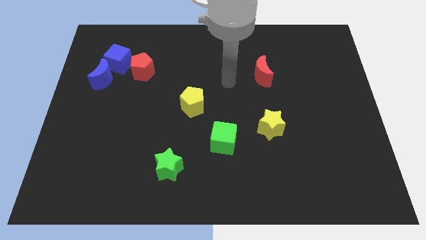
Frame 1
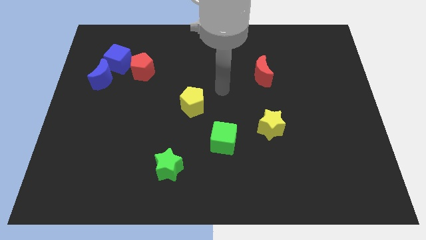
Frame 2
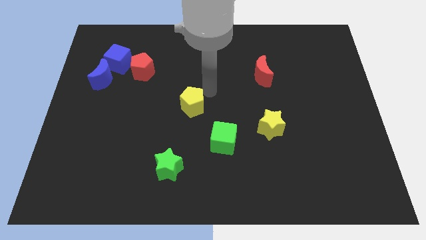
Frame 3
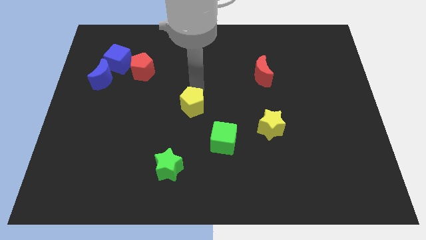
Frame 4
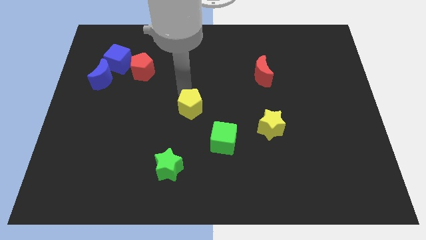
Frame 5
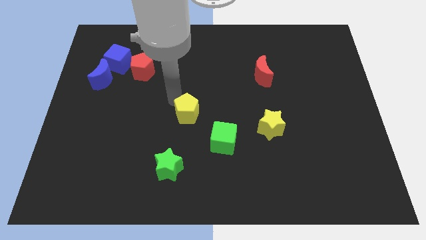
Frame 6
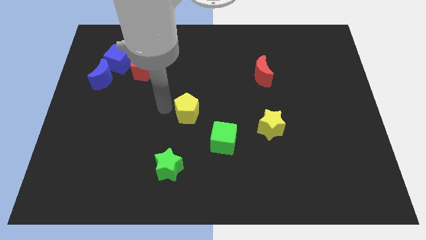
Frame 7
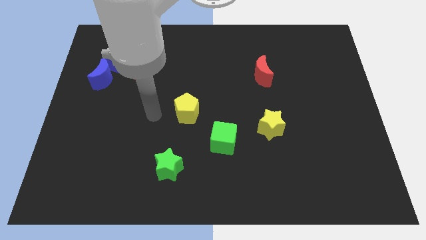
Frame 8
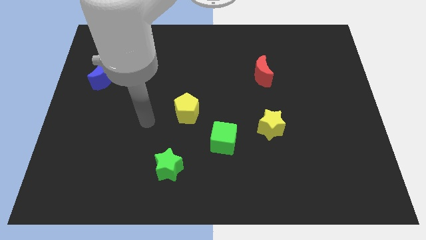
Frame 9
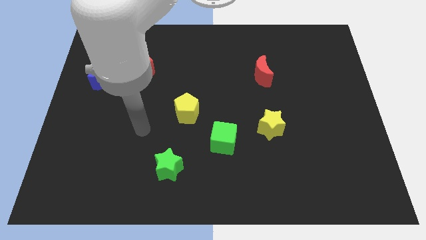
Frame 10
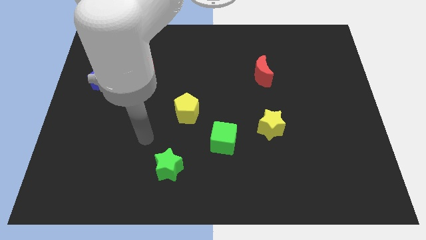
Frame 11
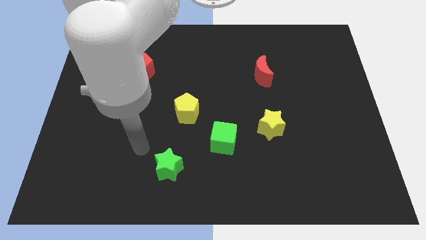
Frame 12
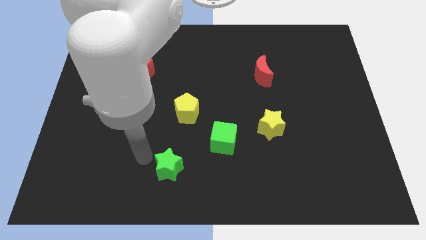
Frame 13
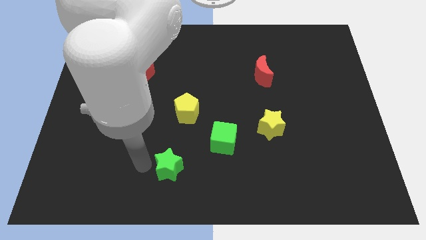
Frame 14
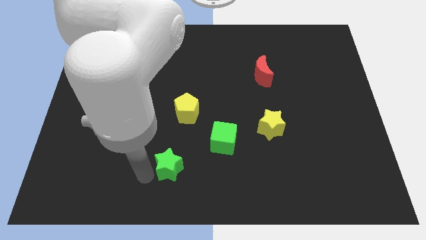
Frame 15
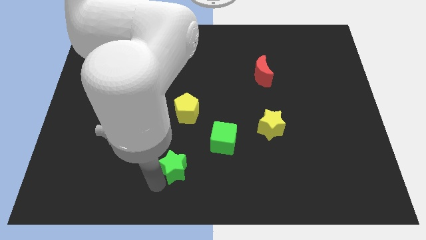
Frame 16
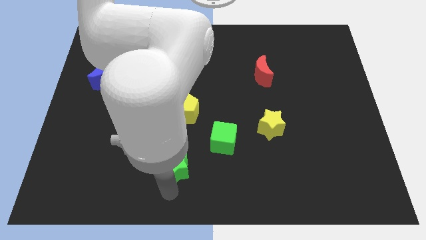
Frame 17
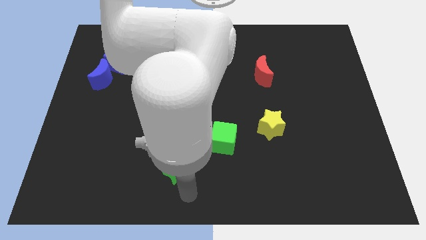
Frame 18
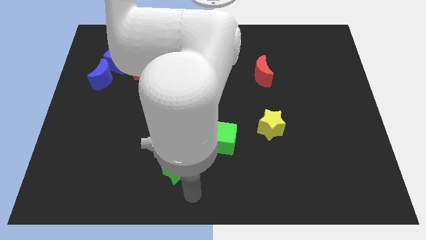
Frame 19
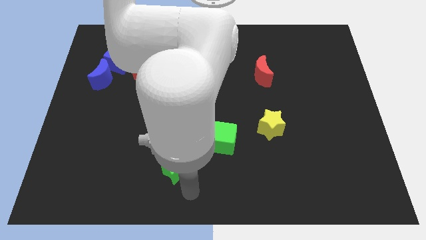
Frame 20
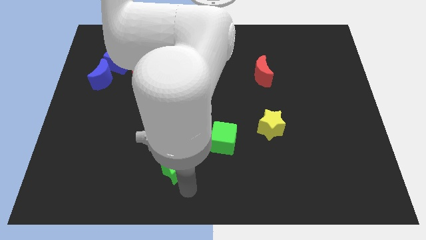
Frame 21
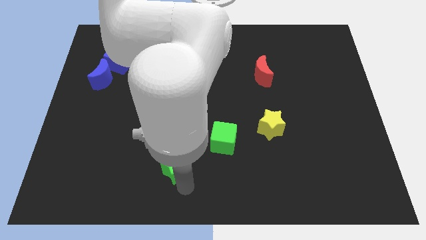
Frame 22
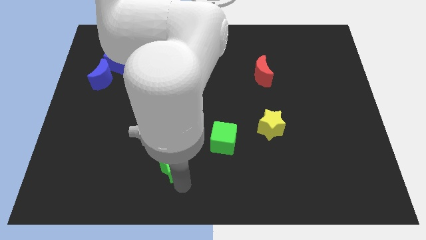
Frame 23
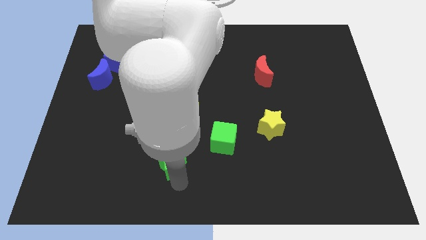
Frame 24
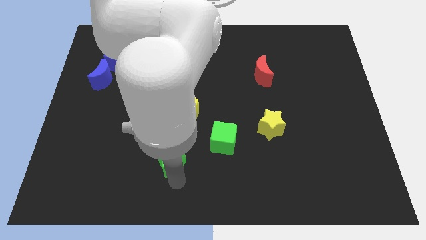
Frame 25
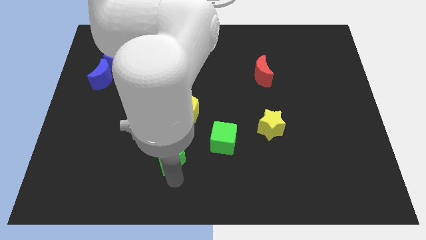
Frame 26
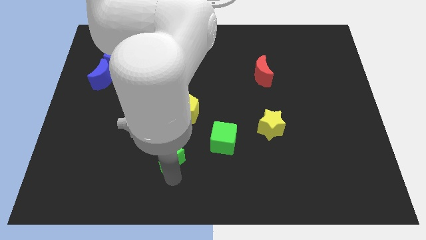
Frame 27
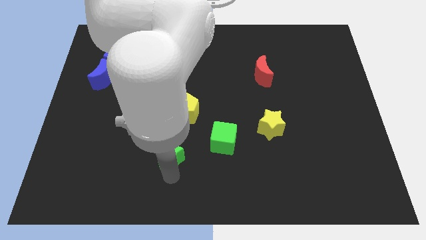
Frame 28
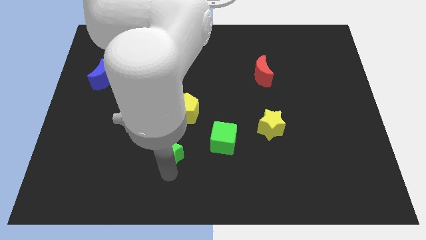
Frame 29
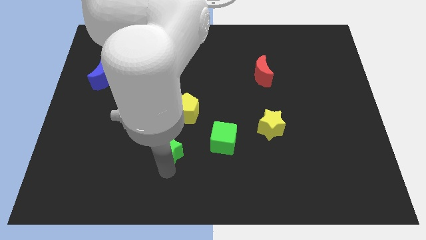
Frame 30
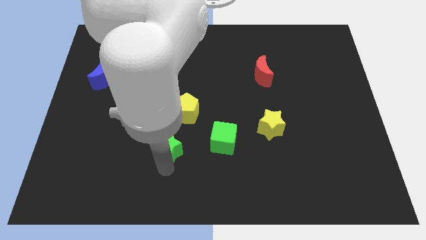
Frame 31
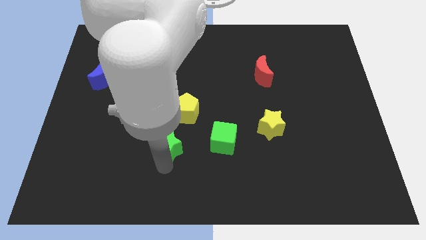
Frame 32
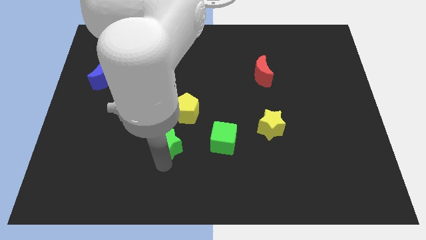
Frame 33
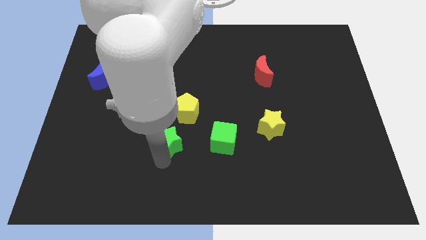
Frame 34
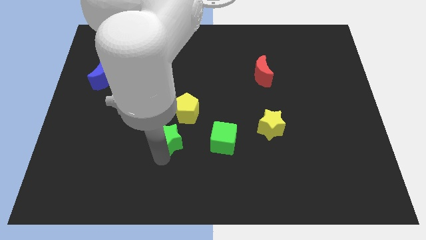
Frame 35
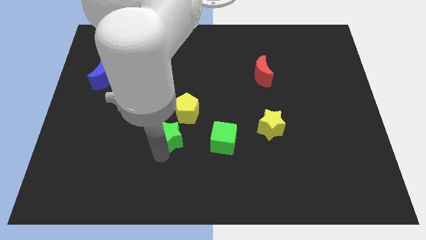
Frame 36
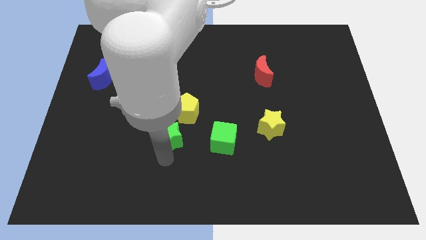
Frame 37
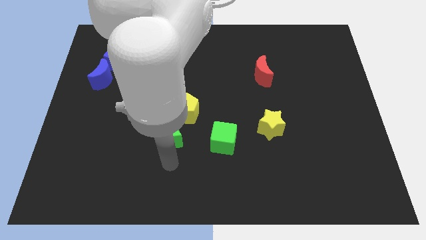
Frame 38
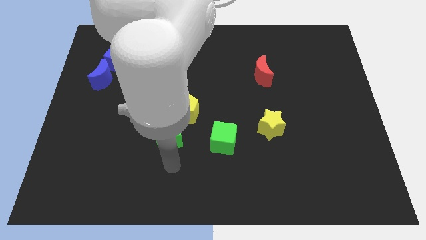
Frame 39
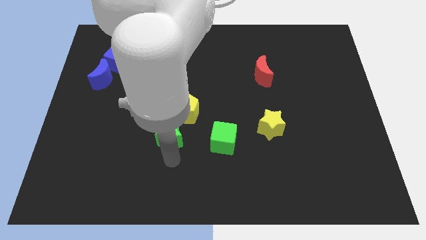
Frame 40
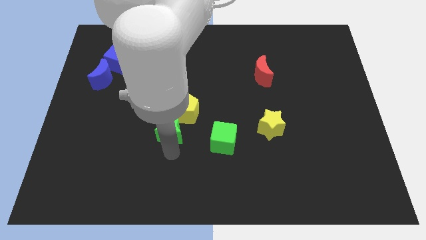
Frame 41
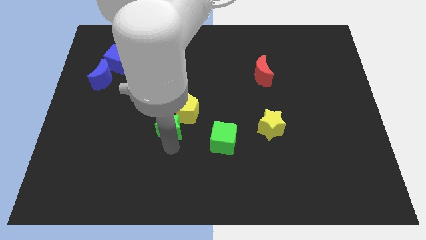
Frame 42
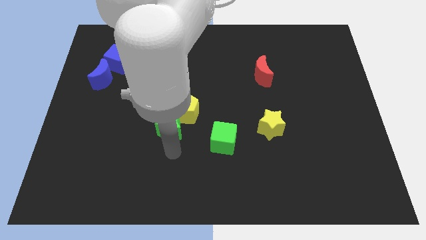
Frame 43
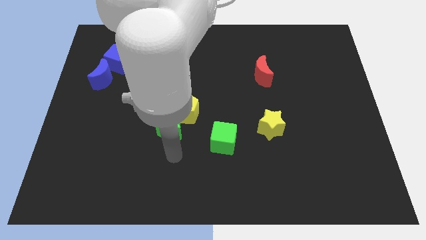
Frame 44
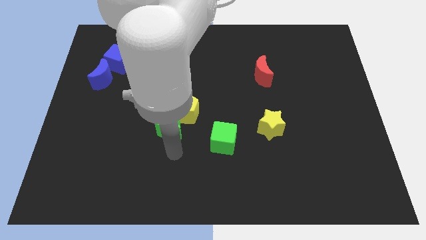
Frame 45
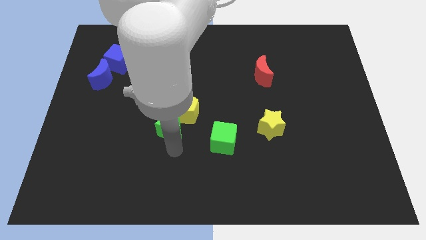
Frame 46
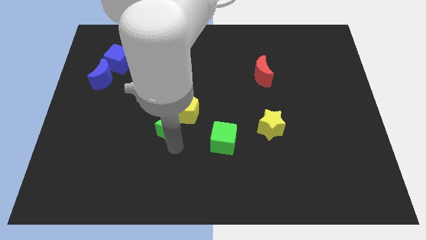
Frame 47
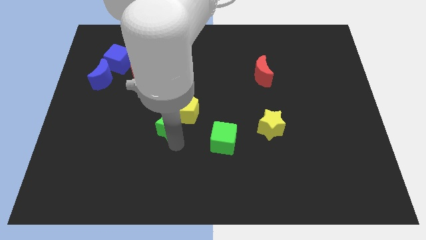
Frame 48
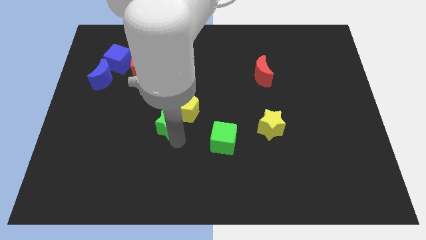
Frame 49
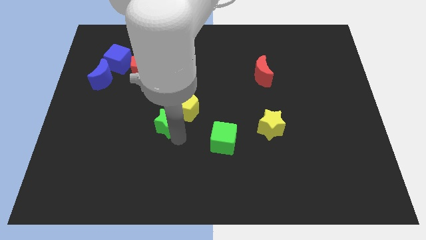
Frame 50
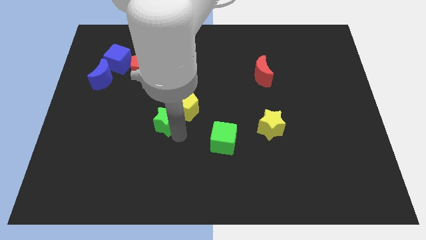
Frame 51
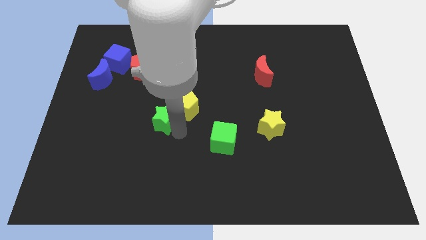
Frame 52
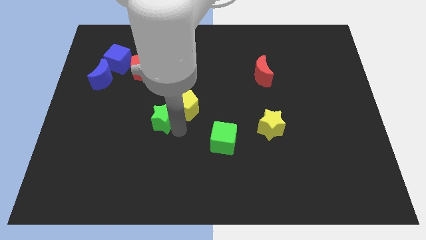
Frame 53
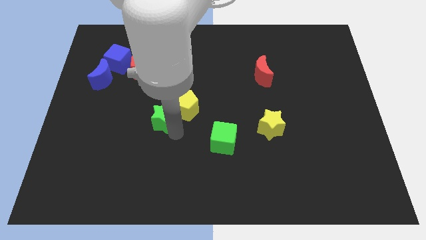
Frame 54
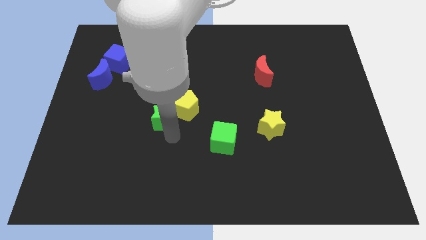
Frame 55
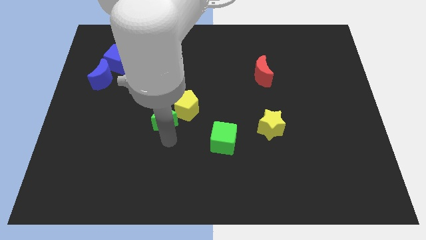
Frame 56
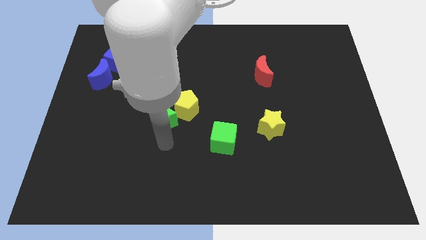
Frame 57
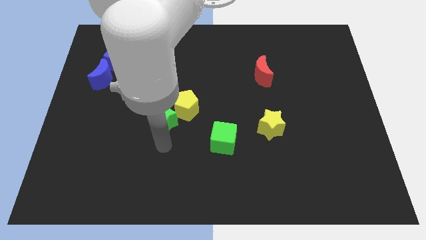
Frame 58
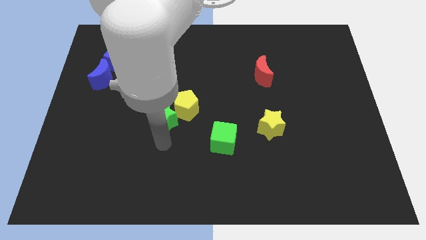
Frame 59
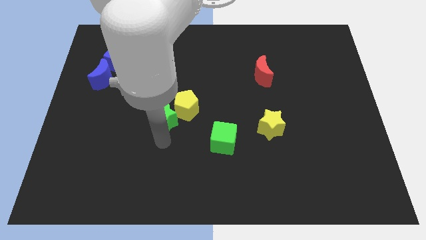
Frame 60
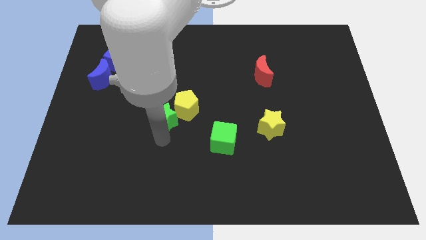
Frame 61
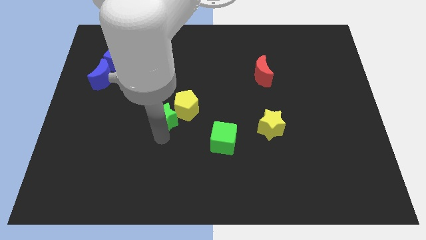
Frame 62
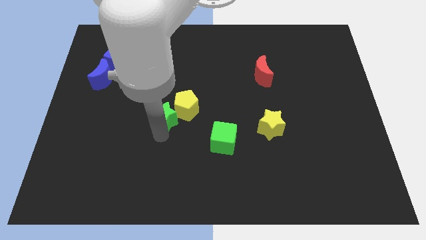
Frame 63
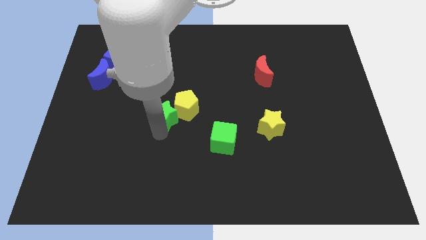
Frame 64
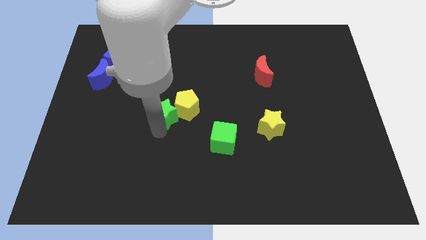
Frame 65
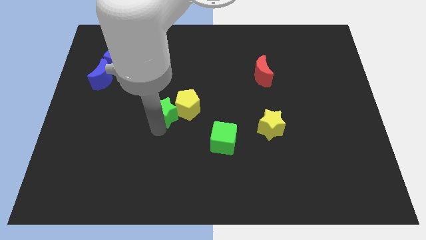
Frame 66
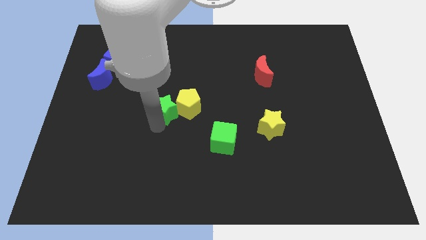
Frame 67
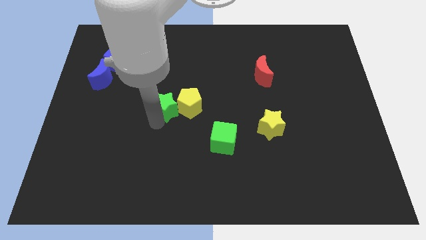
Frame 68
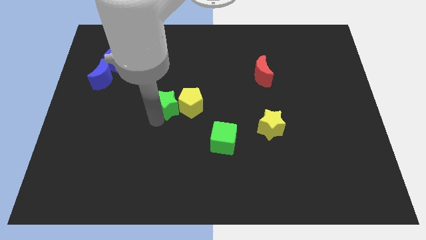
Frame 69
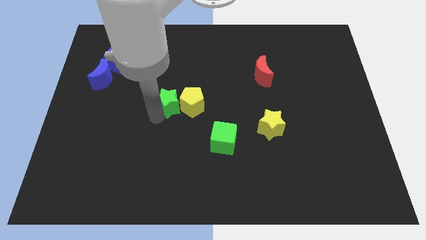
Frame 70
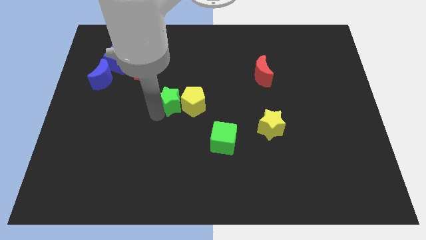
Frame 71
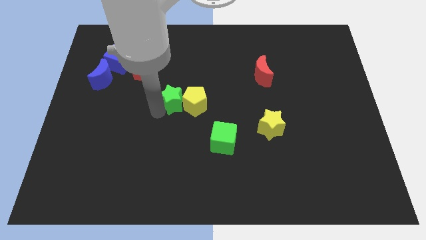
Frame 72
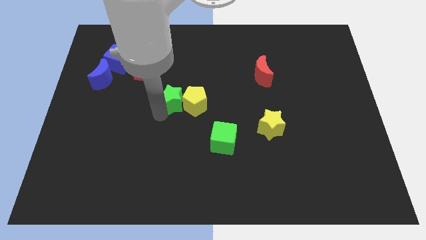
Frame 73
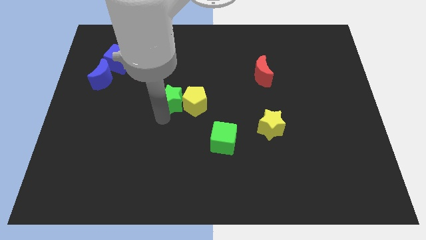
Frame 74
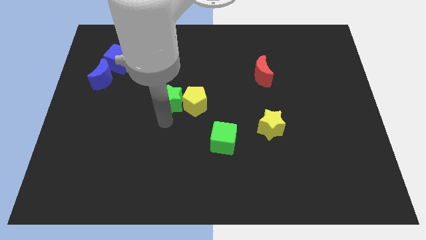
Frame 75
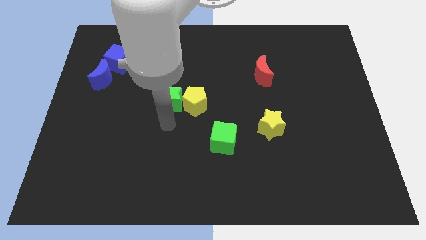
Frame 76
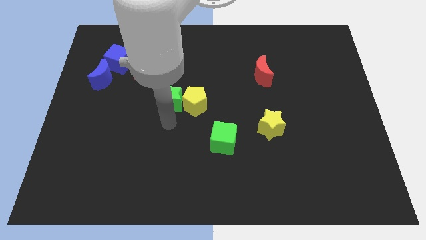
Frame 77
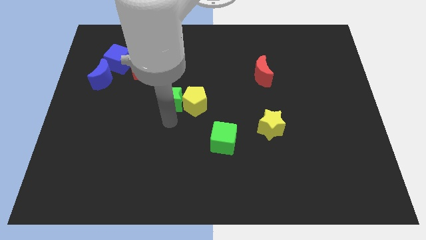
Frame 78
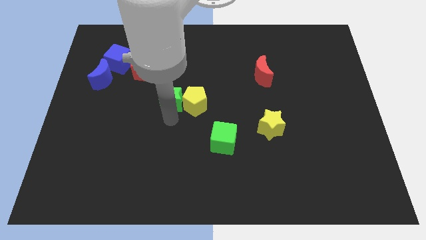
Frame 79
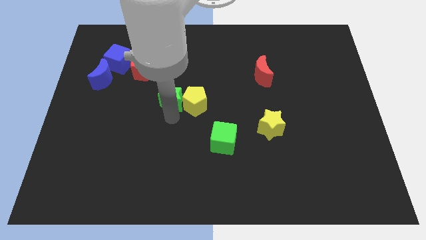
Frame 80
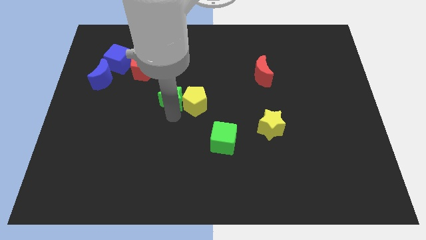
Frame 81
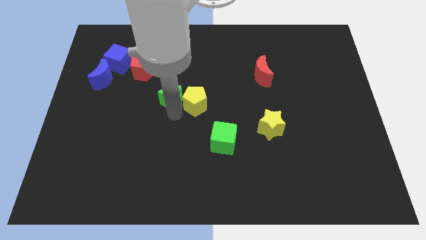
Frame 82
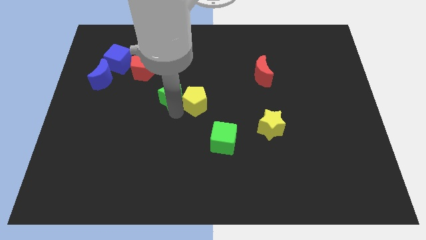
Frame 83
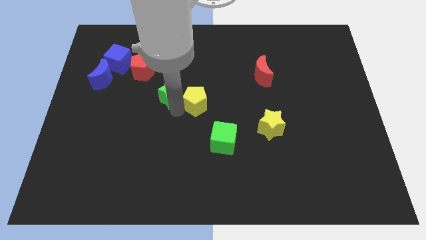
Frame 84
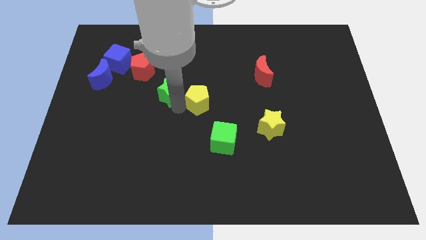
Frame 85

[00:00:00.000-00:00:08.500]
move the green star upwards

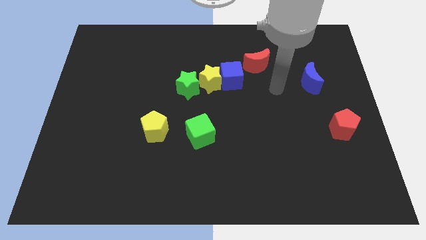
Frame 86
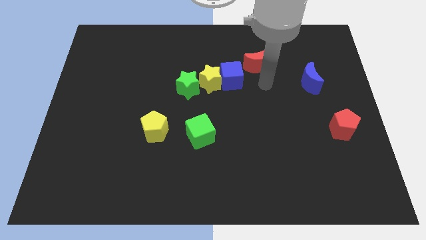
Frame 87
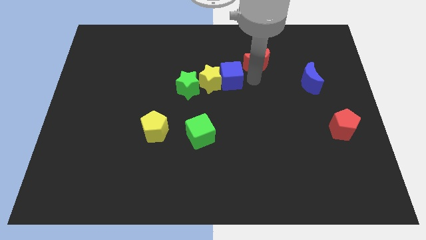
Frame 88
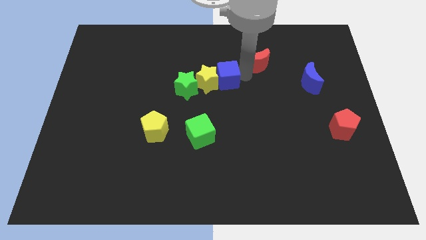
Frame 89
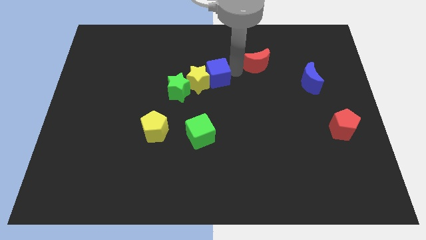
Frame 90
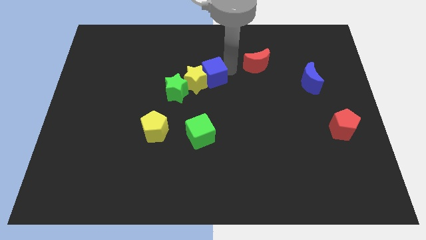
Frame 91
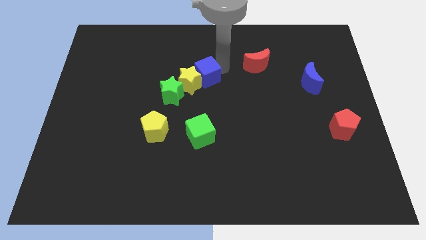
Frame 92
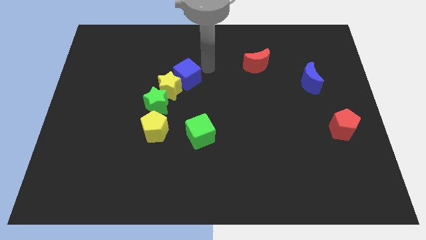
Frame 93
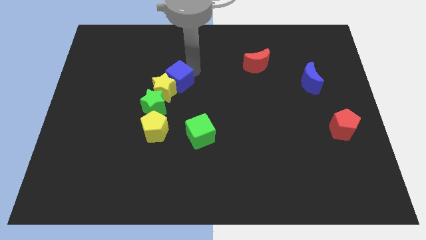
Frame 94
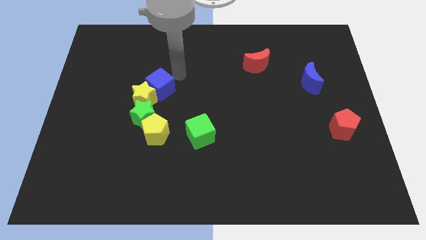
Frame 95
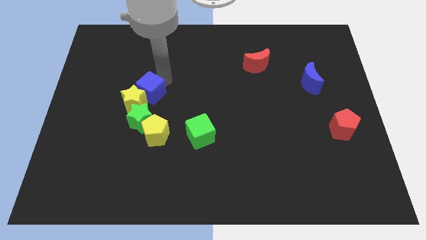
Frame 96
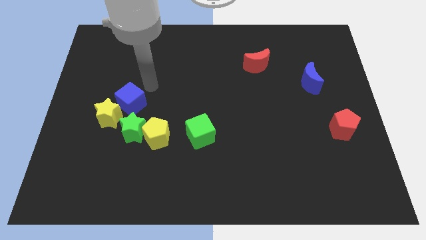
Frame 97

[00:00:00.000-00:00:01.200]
push the yellow star down and to the left diagonally
